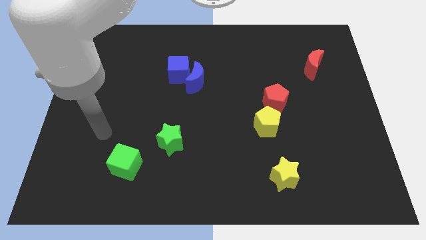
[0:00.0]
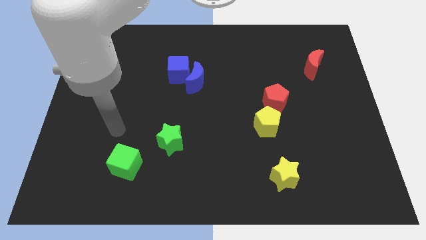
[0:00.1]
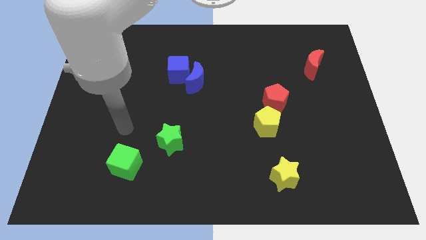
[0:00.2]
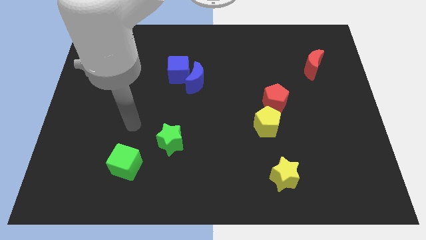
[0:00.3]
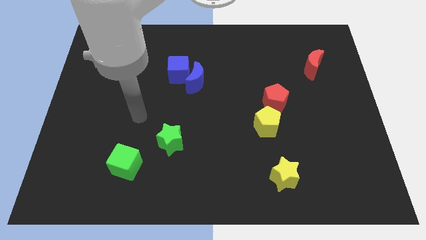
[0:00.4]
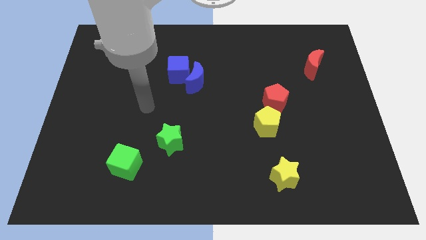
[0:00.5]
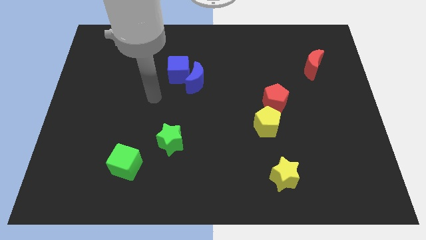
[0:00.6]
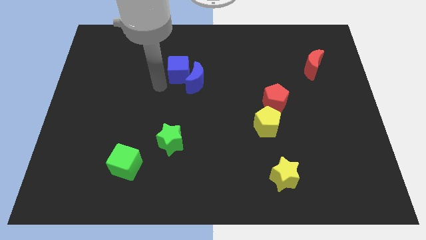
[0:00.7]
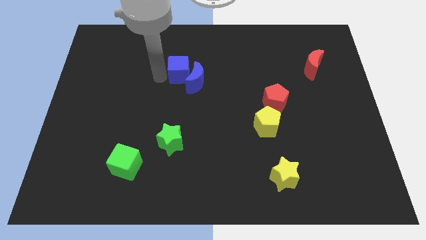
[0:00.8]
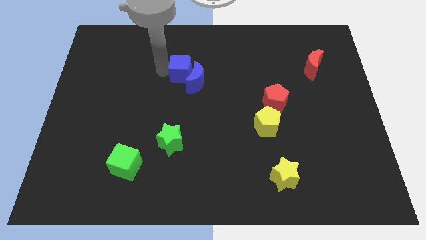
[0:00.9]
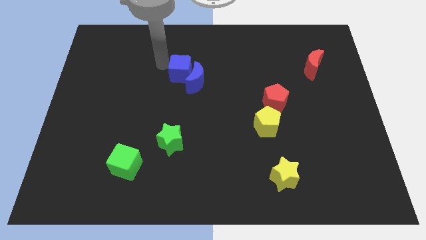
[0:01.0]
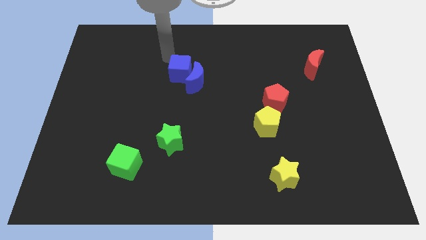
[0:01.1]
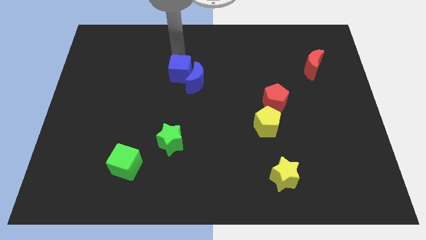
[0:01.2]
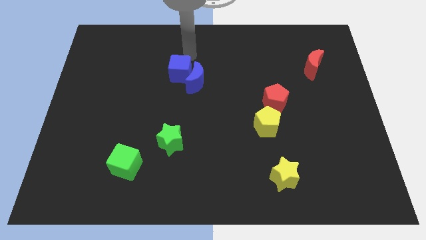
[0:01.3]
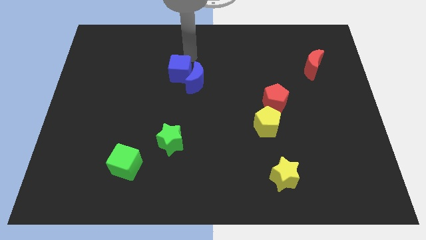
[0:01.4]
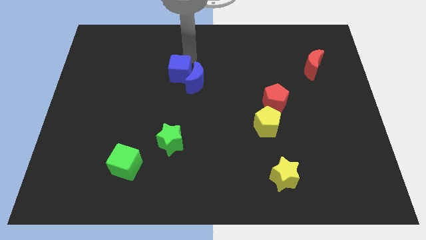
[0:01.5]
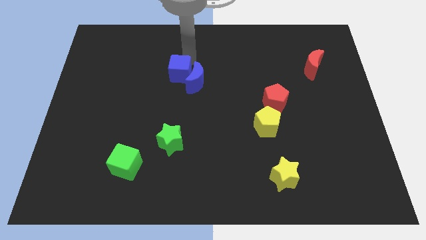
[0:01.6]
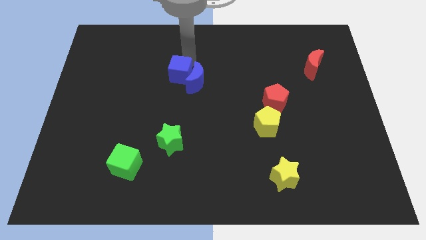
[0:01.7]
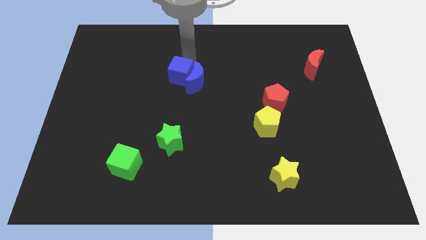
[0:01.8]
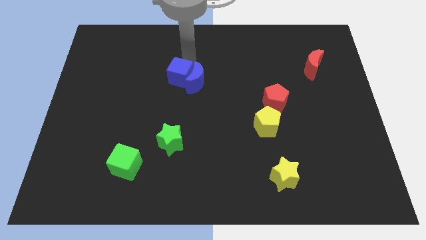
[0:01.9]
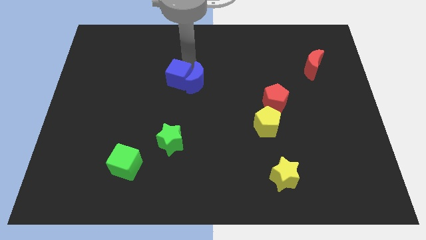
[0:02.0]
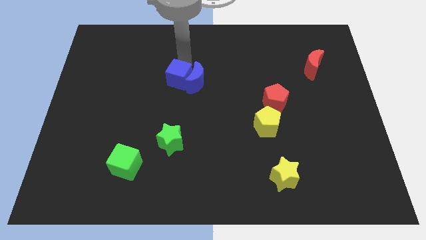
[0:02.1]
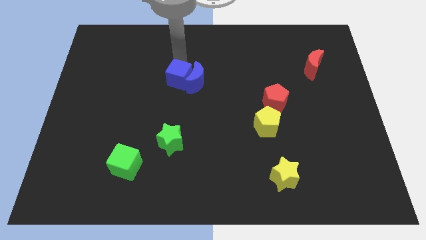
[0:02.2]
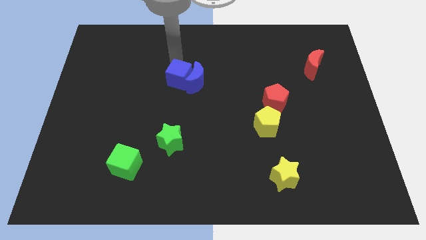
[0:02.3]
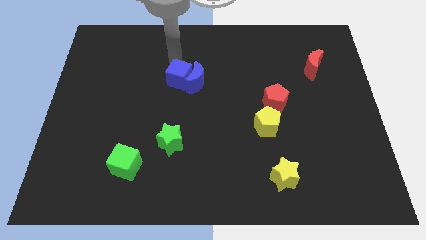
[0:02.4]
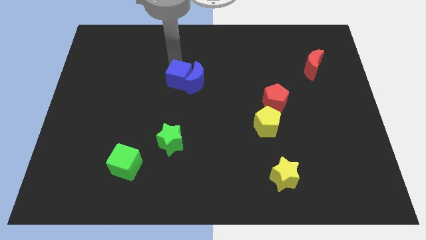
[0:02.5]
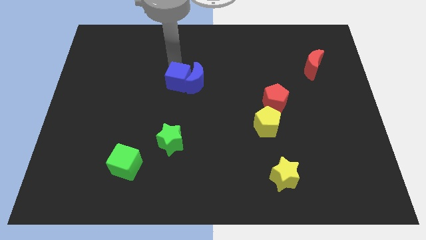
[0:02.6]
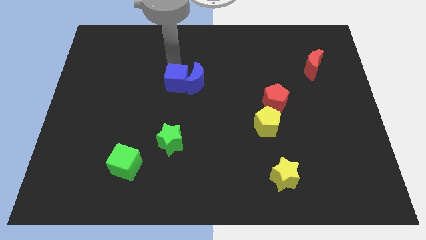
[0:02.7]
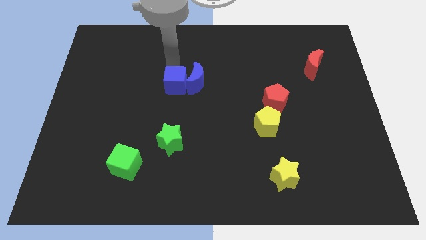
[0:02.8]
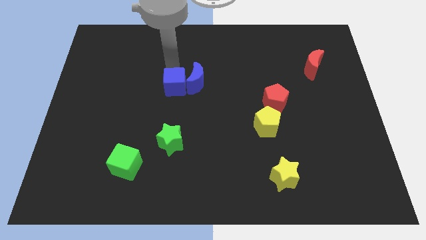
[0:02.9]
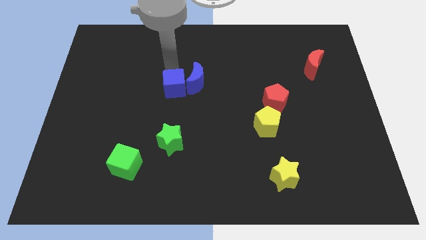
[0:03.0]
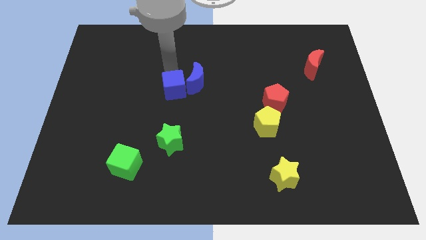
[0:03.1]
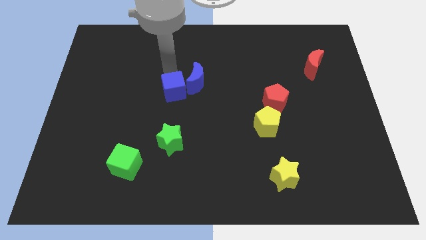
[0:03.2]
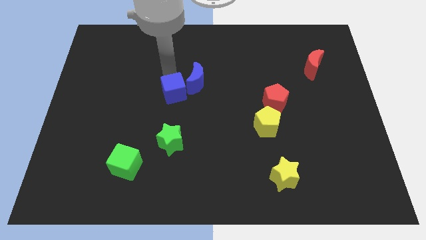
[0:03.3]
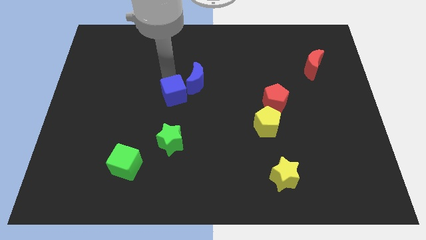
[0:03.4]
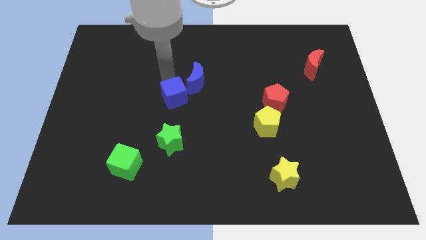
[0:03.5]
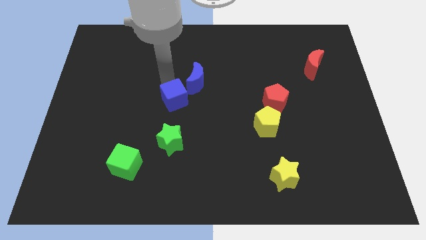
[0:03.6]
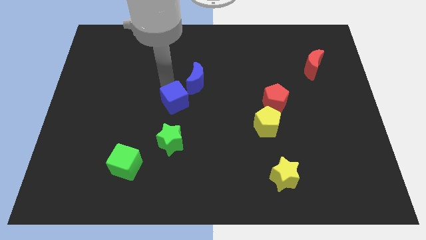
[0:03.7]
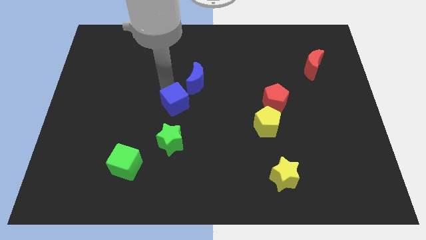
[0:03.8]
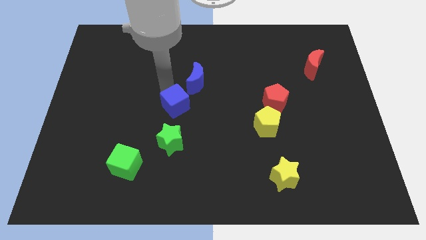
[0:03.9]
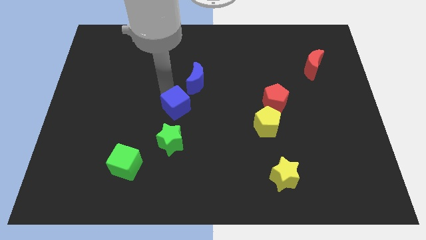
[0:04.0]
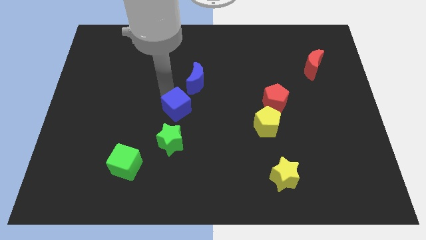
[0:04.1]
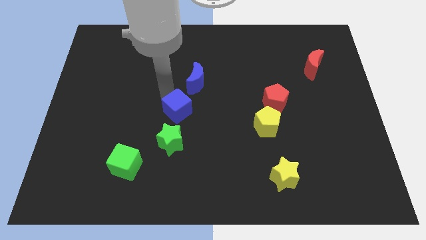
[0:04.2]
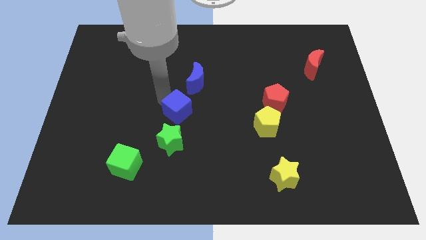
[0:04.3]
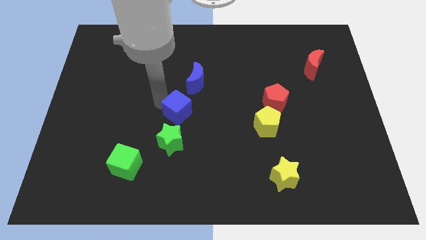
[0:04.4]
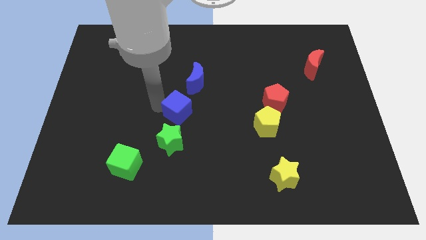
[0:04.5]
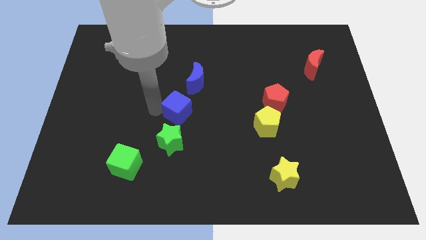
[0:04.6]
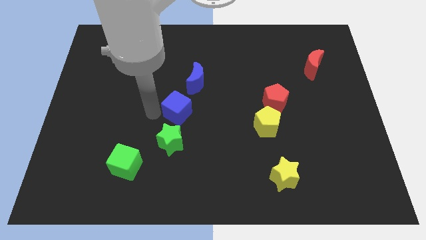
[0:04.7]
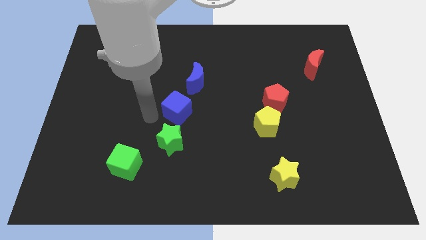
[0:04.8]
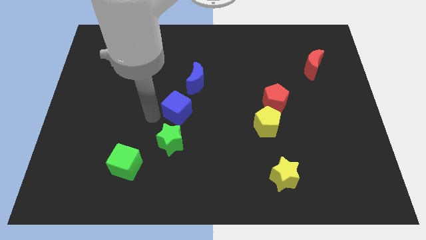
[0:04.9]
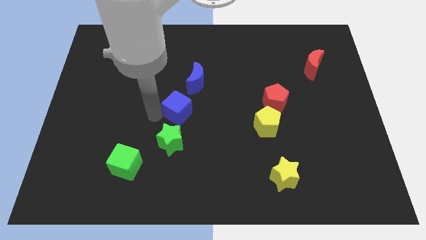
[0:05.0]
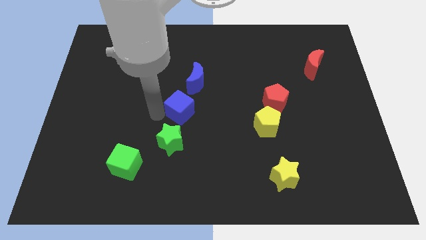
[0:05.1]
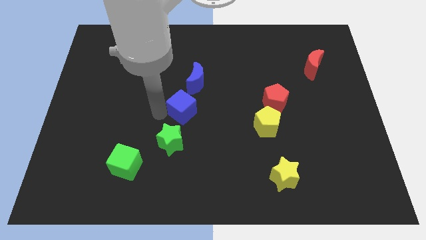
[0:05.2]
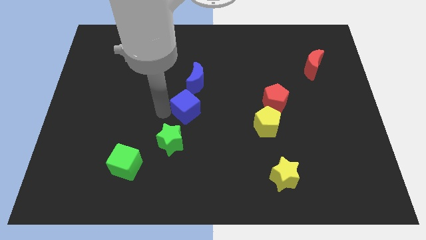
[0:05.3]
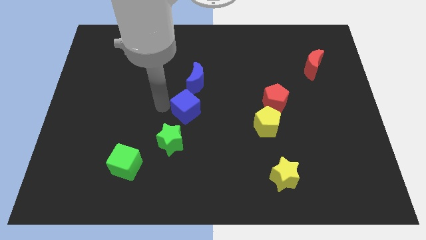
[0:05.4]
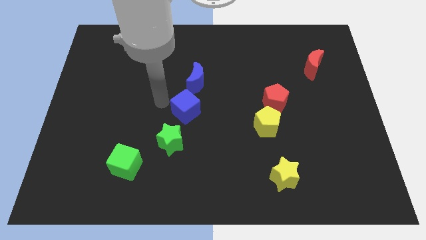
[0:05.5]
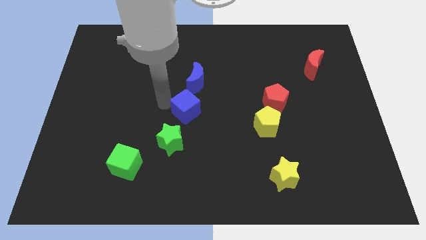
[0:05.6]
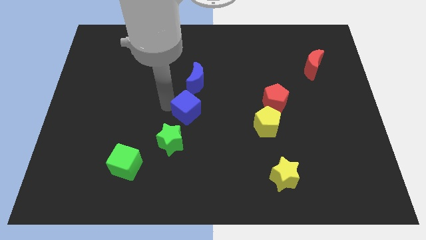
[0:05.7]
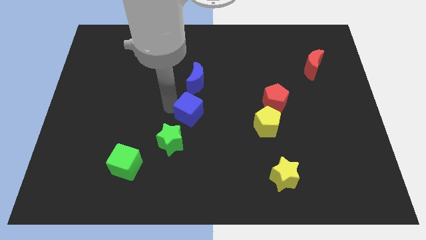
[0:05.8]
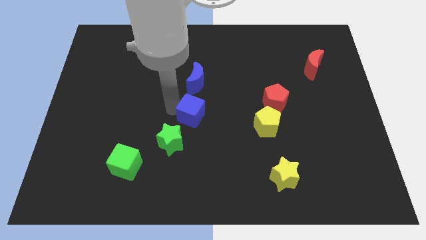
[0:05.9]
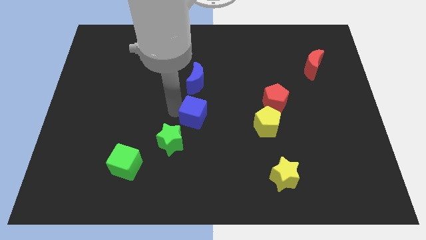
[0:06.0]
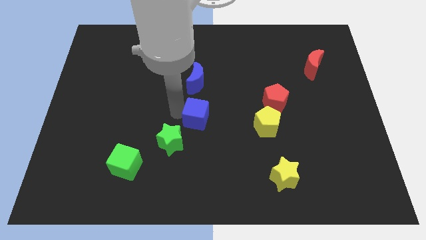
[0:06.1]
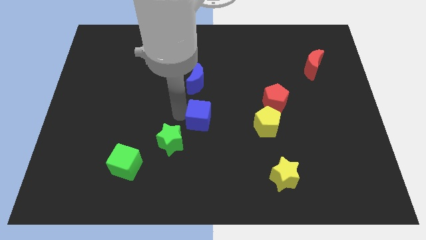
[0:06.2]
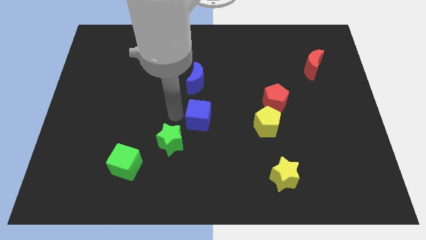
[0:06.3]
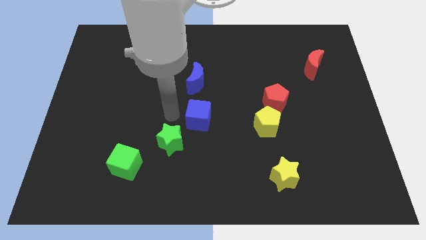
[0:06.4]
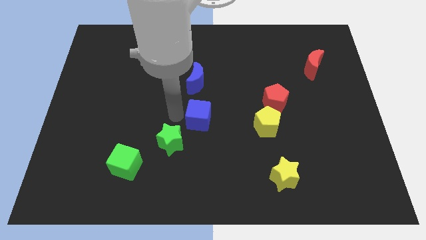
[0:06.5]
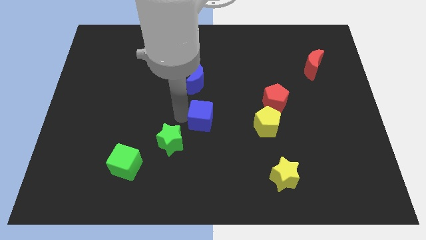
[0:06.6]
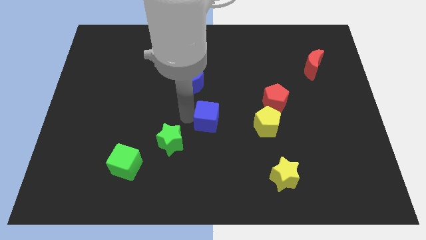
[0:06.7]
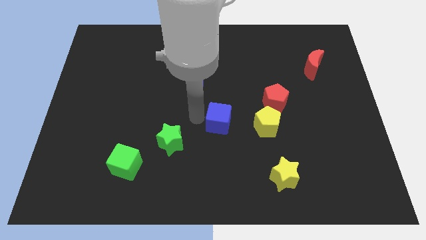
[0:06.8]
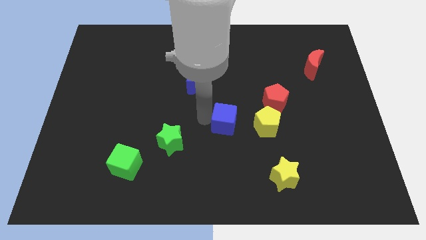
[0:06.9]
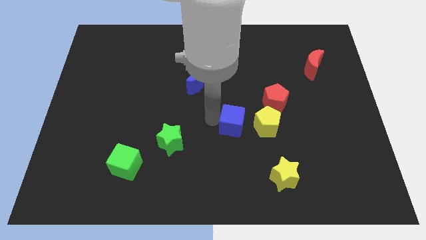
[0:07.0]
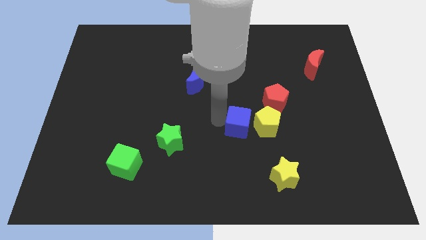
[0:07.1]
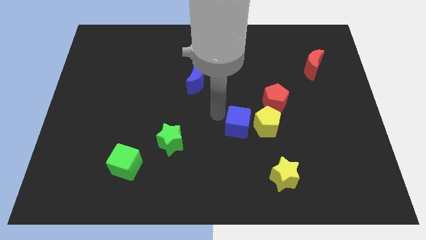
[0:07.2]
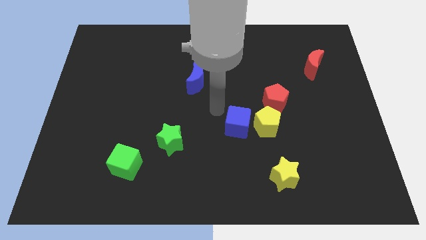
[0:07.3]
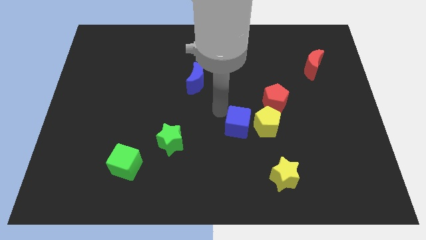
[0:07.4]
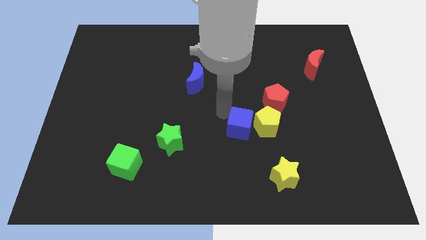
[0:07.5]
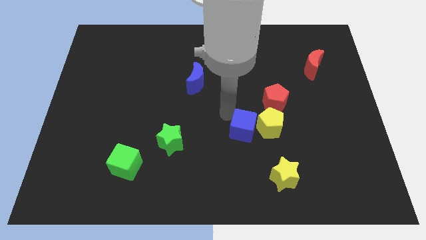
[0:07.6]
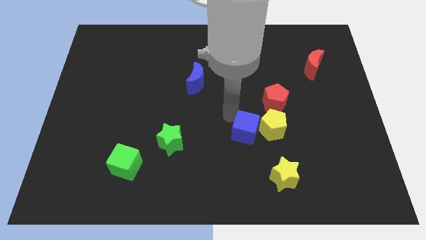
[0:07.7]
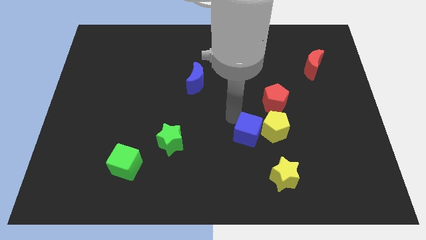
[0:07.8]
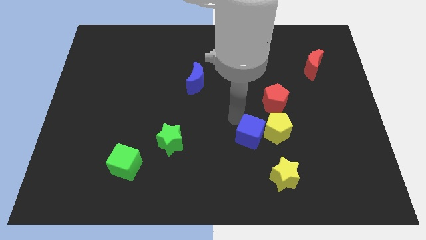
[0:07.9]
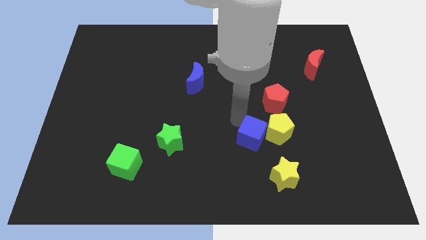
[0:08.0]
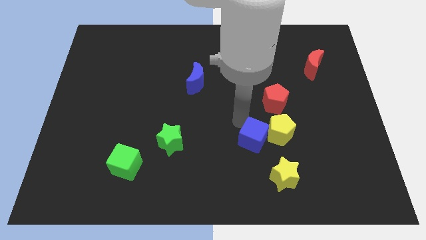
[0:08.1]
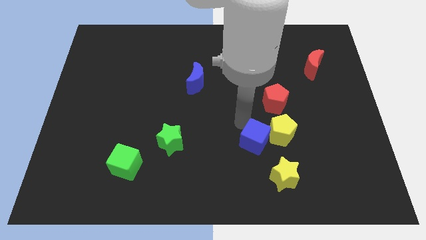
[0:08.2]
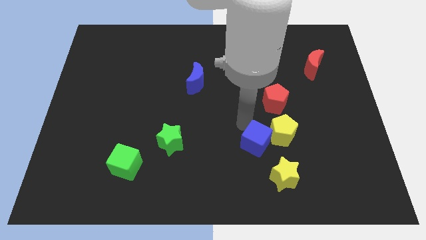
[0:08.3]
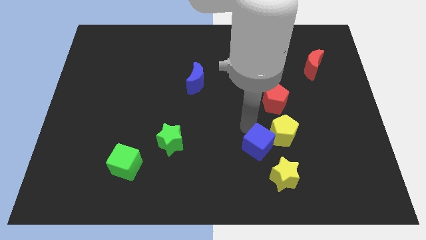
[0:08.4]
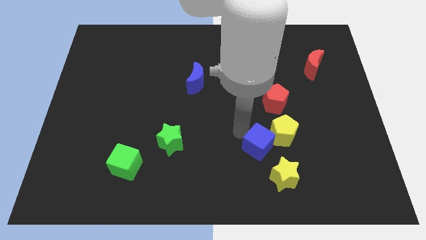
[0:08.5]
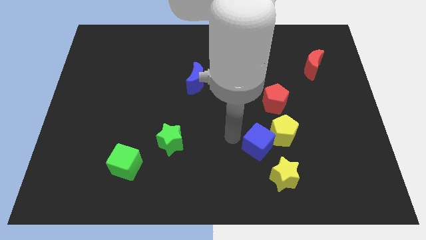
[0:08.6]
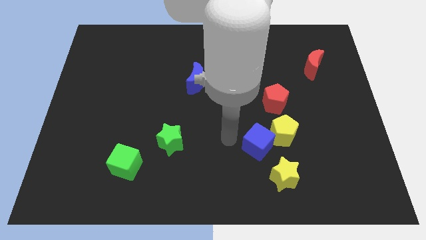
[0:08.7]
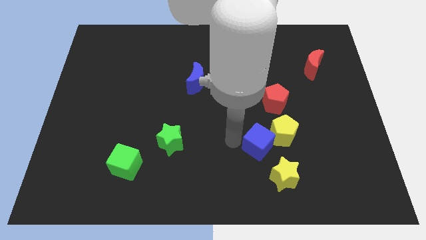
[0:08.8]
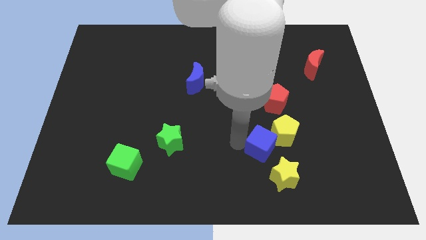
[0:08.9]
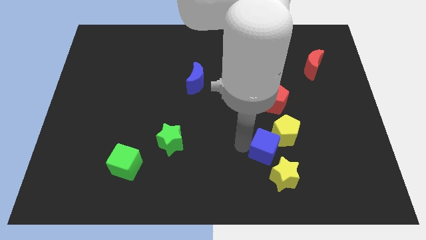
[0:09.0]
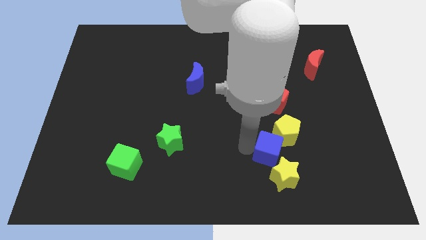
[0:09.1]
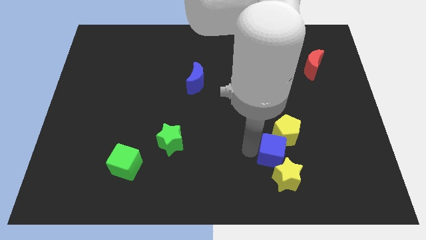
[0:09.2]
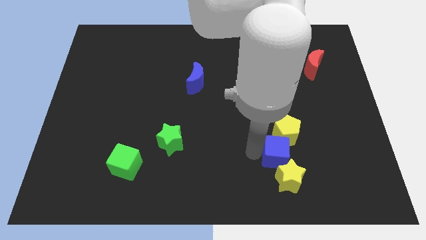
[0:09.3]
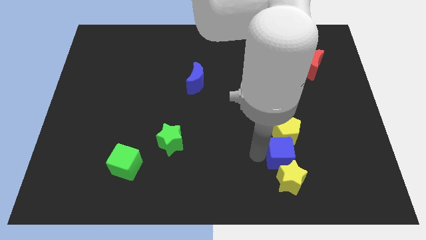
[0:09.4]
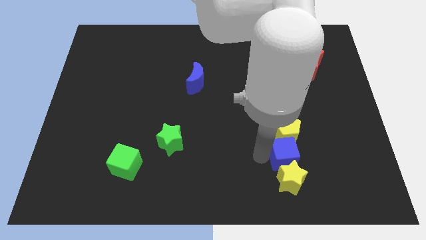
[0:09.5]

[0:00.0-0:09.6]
move the blue cube to the bottom right of the yellow pentagon
